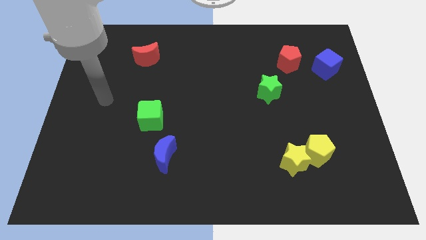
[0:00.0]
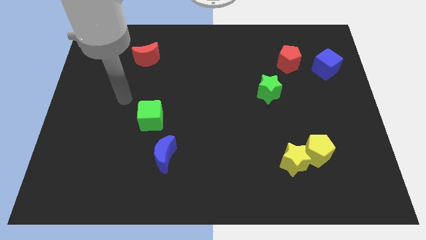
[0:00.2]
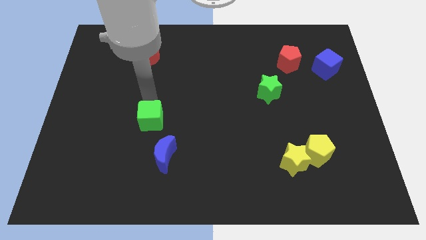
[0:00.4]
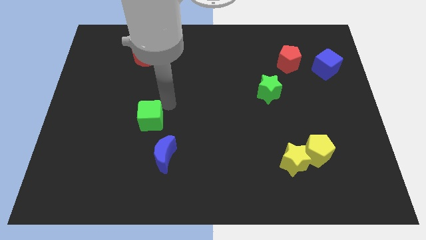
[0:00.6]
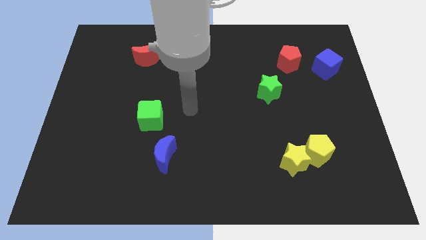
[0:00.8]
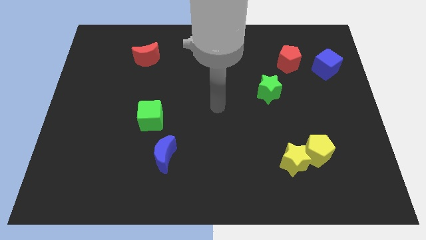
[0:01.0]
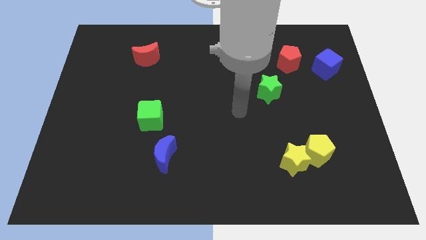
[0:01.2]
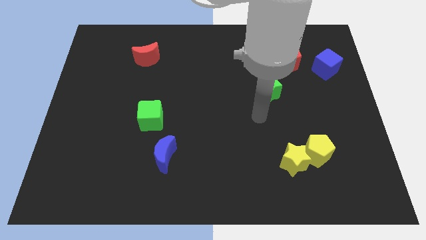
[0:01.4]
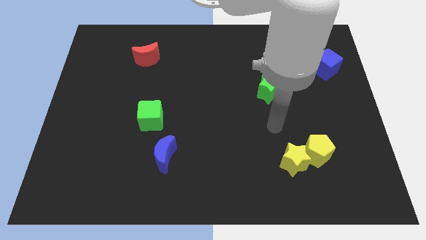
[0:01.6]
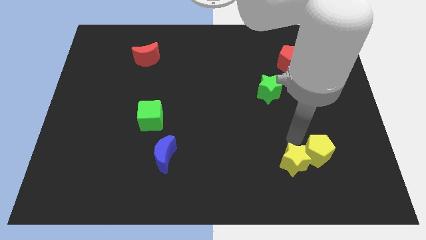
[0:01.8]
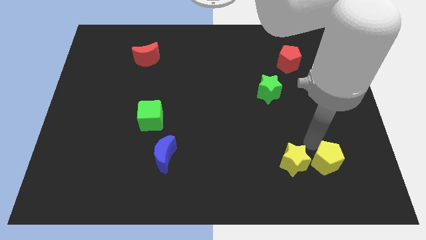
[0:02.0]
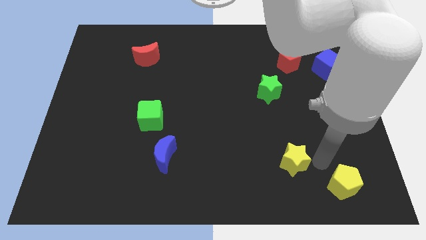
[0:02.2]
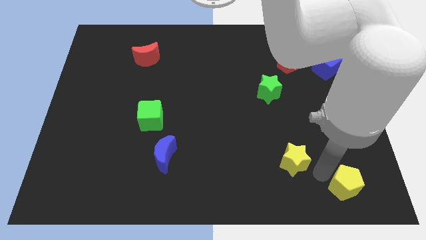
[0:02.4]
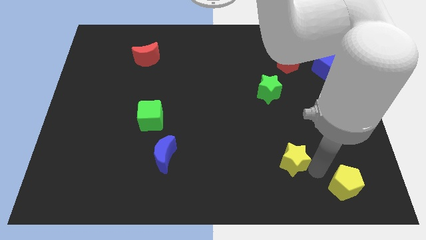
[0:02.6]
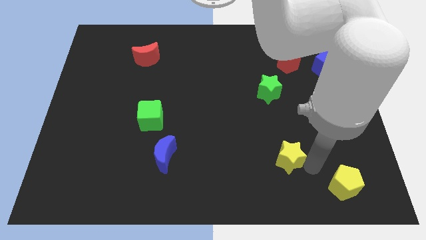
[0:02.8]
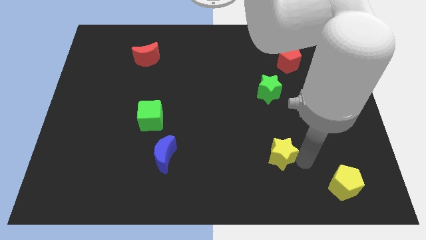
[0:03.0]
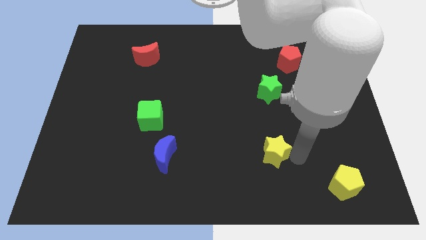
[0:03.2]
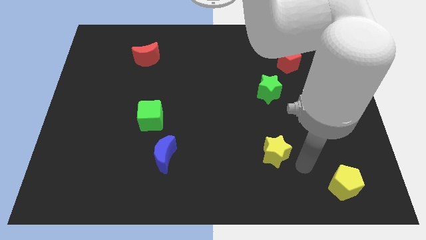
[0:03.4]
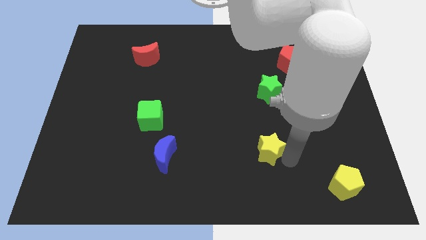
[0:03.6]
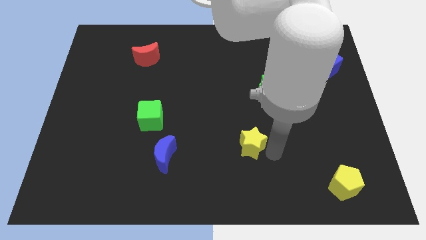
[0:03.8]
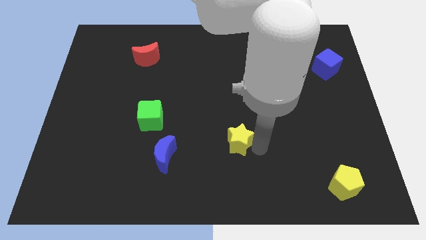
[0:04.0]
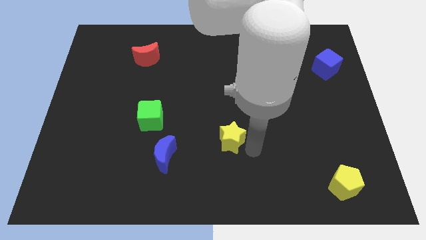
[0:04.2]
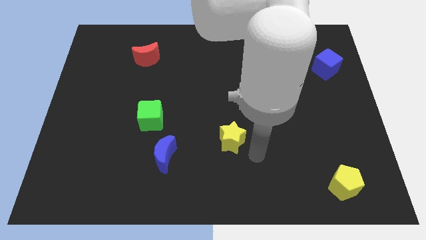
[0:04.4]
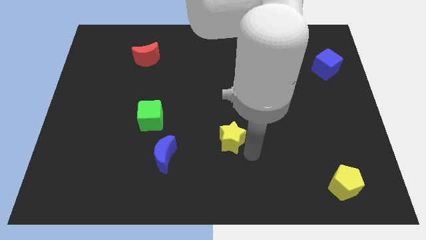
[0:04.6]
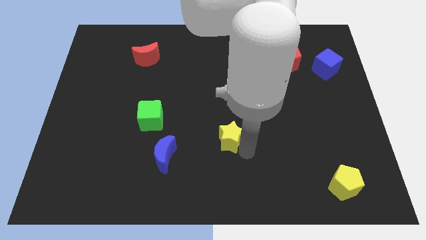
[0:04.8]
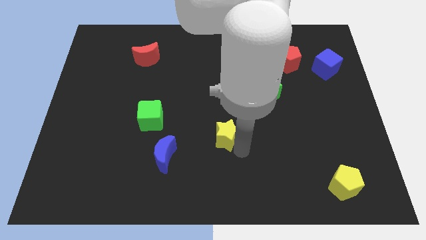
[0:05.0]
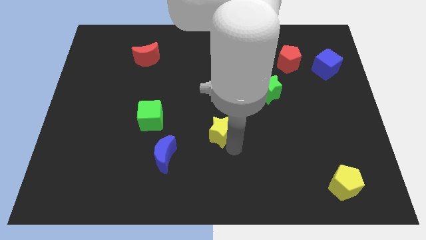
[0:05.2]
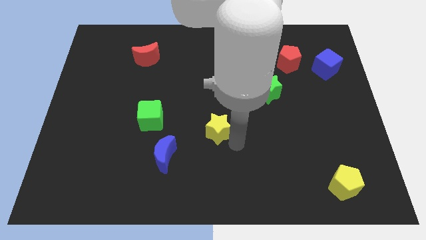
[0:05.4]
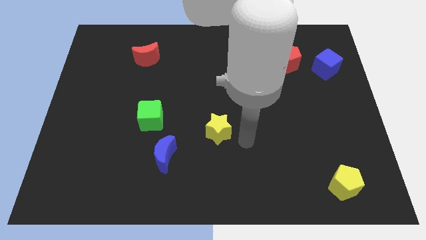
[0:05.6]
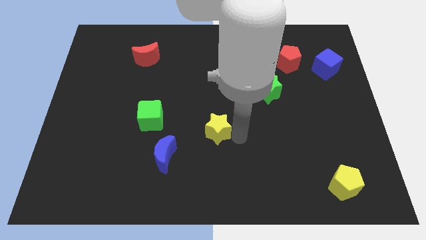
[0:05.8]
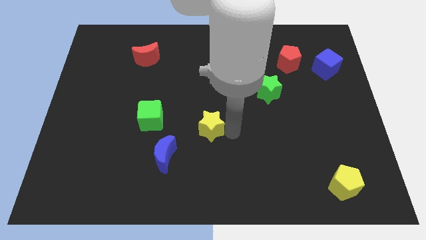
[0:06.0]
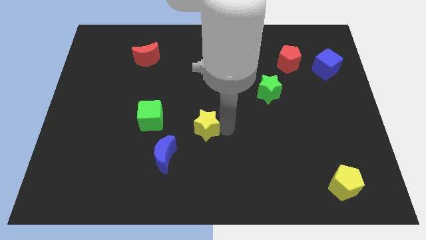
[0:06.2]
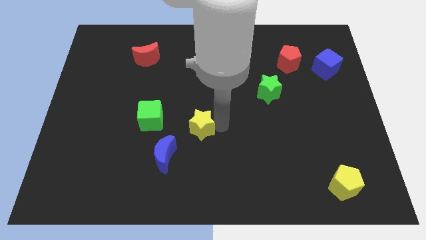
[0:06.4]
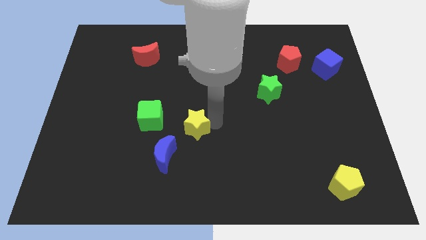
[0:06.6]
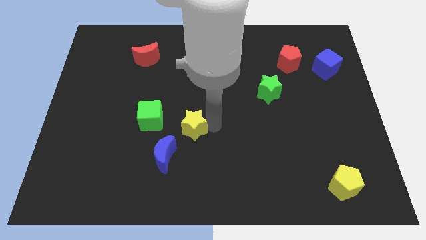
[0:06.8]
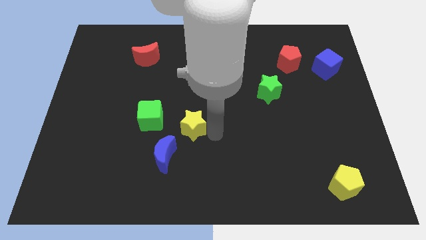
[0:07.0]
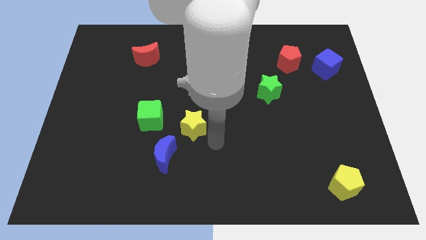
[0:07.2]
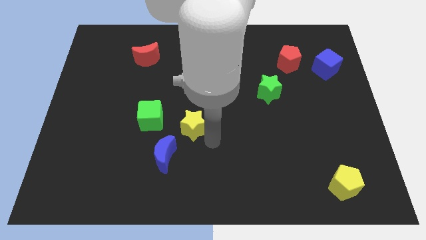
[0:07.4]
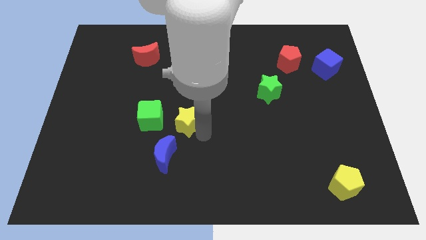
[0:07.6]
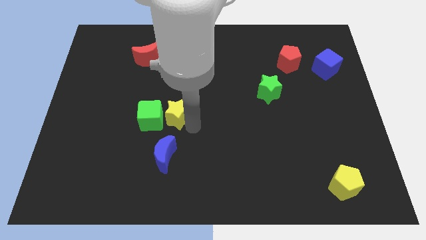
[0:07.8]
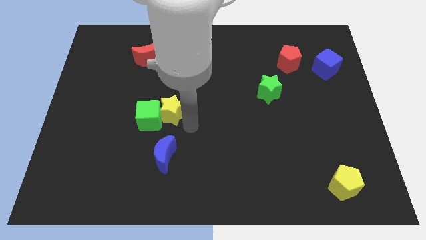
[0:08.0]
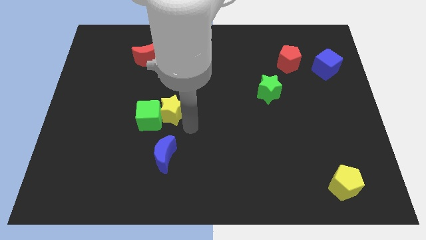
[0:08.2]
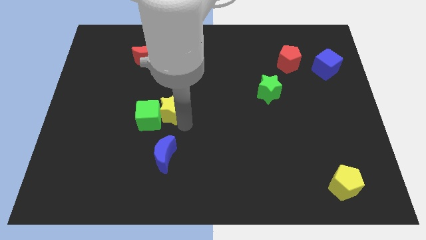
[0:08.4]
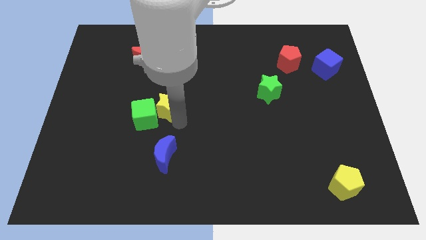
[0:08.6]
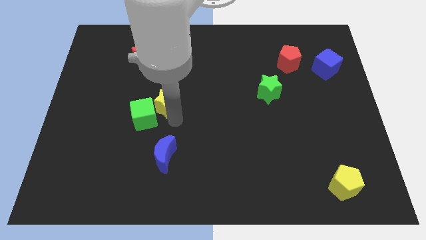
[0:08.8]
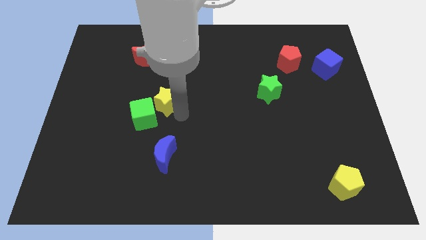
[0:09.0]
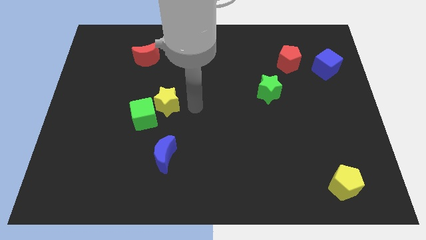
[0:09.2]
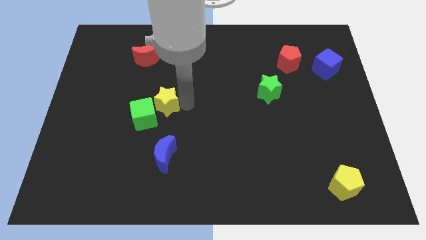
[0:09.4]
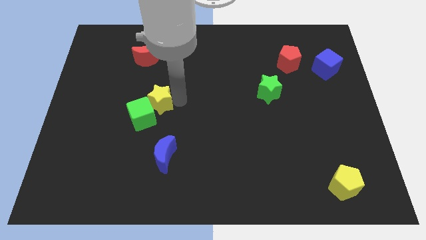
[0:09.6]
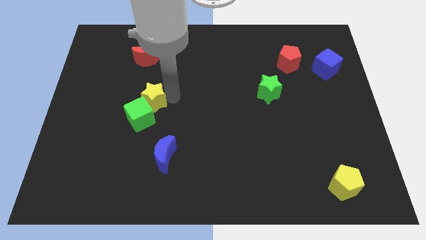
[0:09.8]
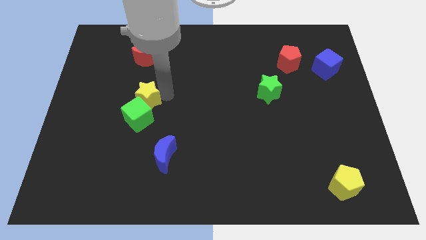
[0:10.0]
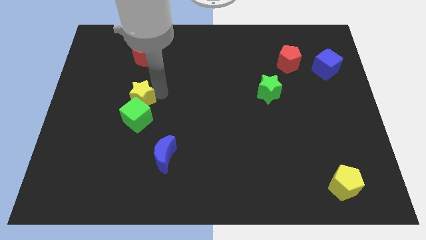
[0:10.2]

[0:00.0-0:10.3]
push the yellow star to the top left of the green cube

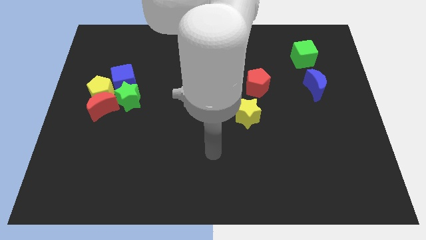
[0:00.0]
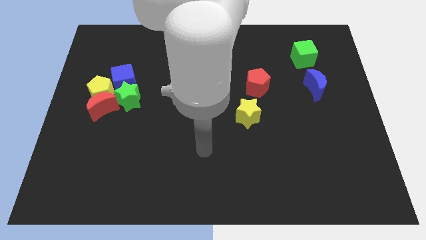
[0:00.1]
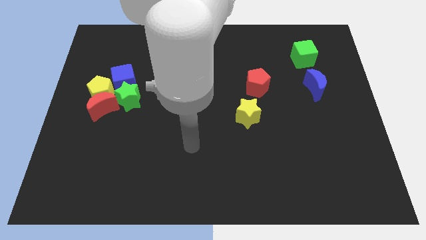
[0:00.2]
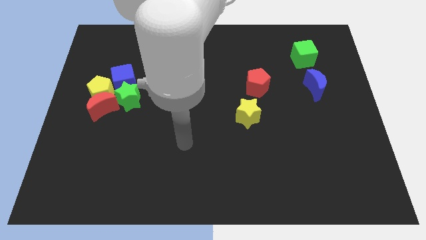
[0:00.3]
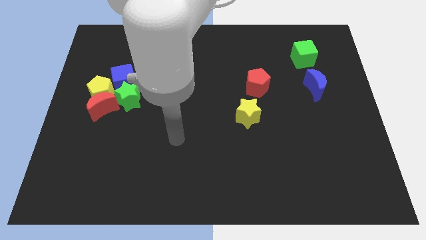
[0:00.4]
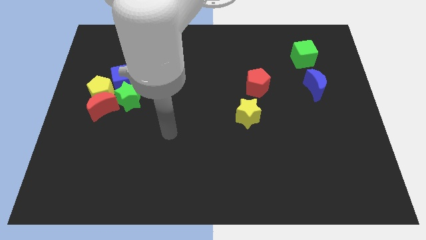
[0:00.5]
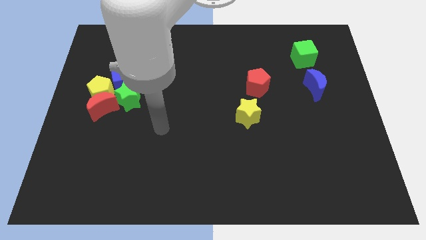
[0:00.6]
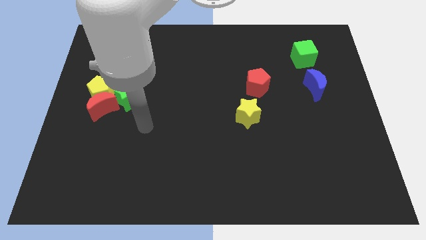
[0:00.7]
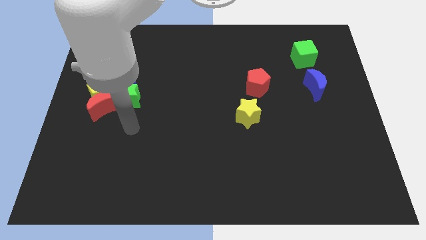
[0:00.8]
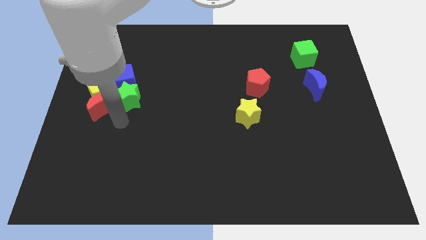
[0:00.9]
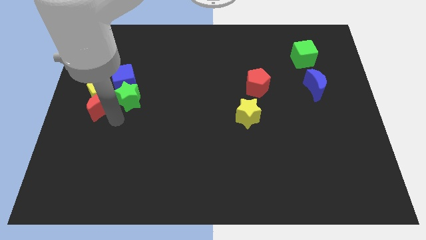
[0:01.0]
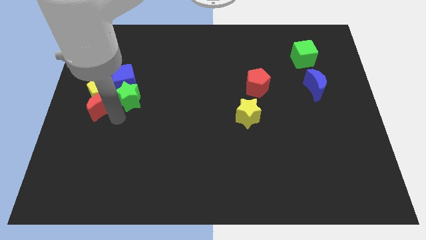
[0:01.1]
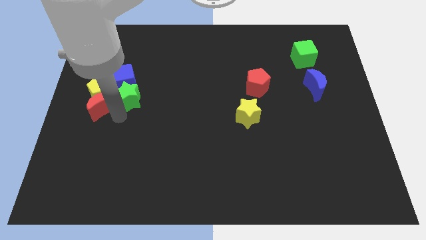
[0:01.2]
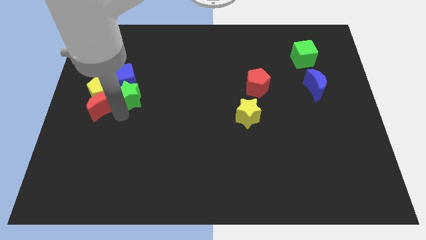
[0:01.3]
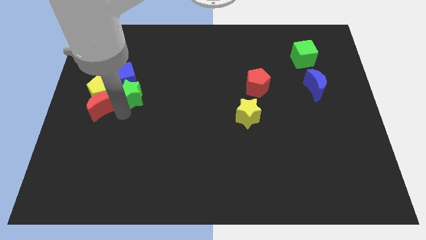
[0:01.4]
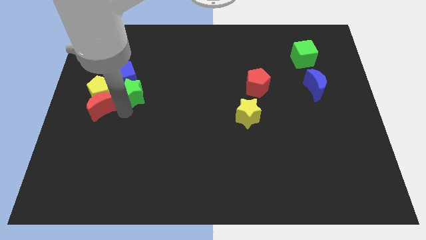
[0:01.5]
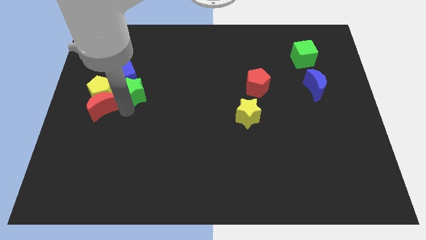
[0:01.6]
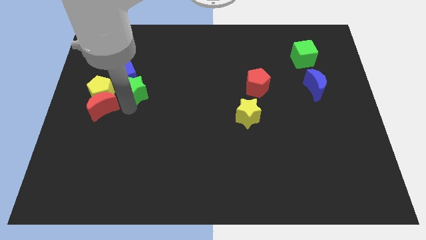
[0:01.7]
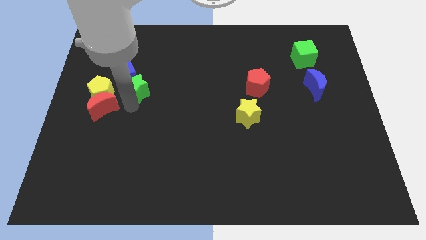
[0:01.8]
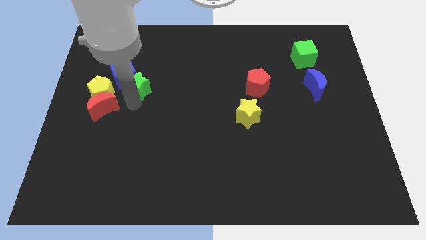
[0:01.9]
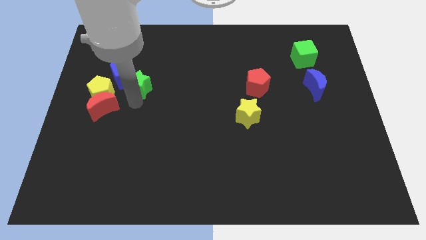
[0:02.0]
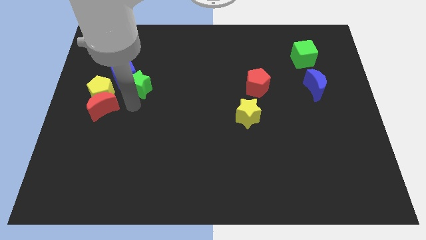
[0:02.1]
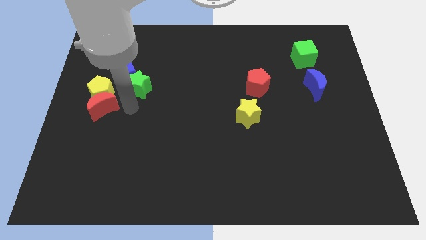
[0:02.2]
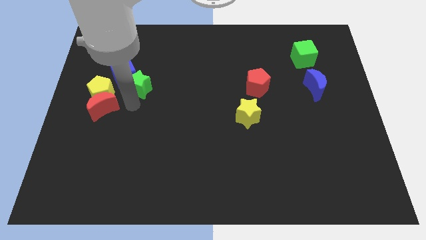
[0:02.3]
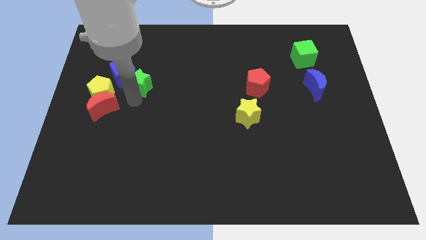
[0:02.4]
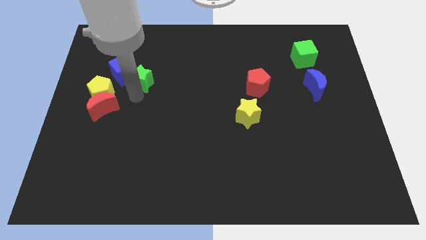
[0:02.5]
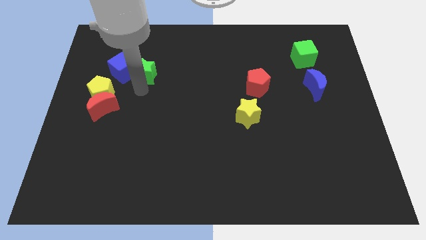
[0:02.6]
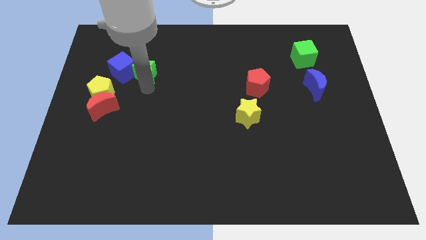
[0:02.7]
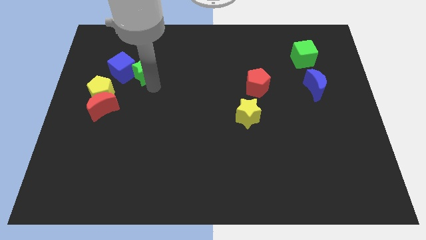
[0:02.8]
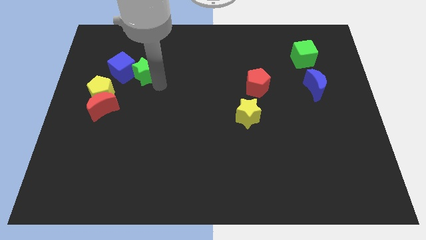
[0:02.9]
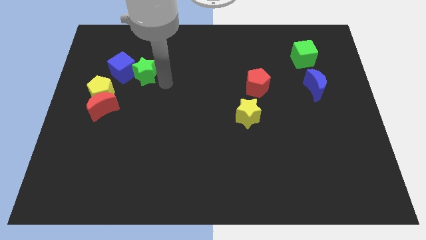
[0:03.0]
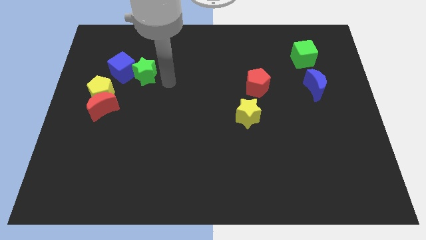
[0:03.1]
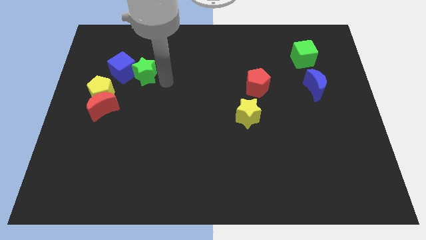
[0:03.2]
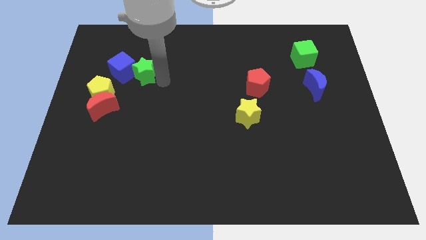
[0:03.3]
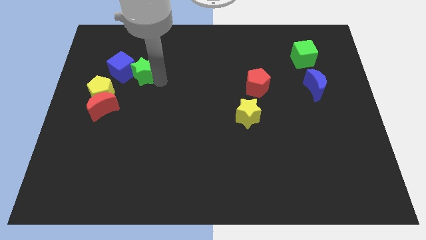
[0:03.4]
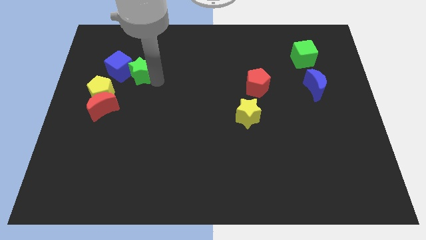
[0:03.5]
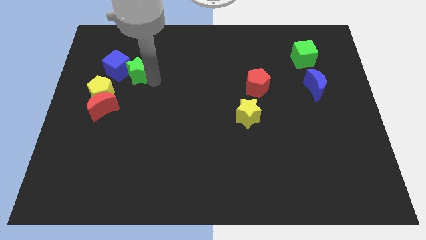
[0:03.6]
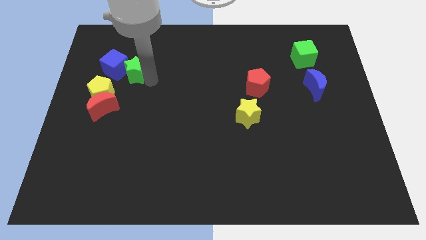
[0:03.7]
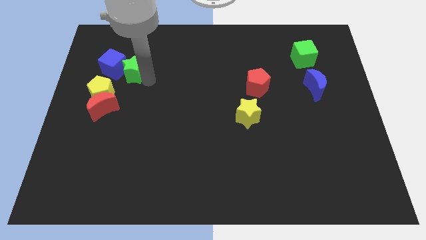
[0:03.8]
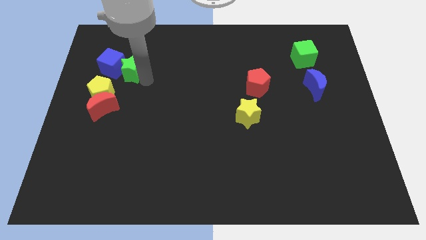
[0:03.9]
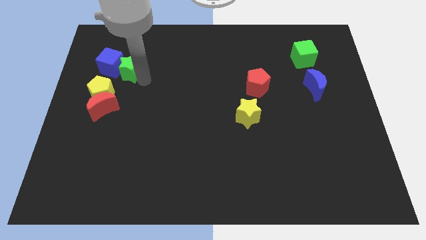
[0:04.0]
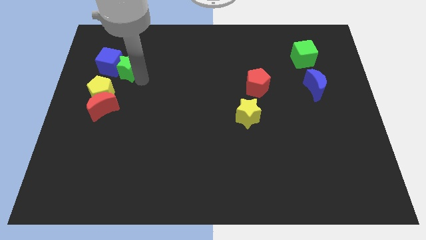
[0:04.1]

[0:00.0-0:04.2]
slide the green star above the red moon
